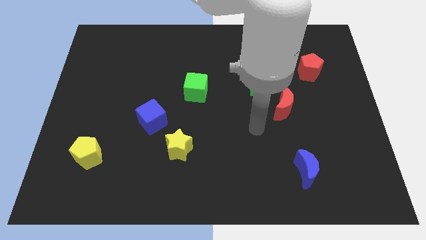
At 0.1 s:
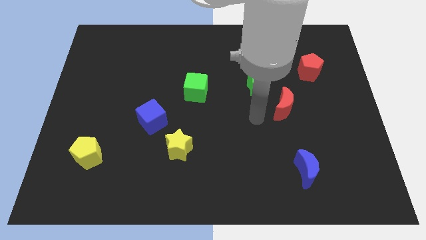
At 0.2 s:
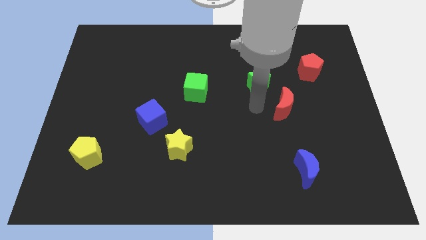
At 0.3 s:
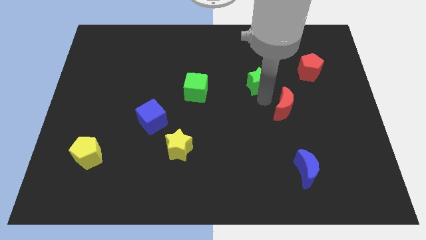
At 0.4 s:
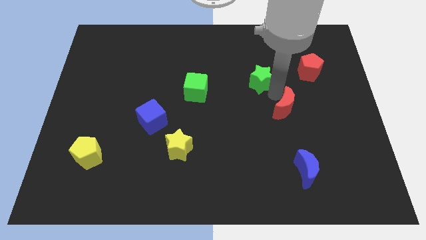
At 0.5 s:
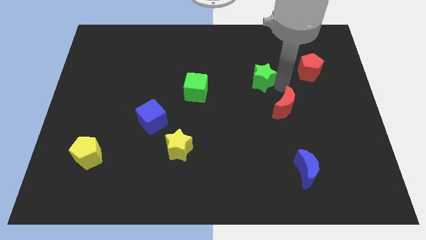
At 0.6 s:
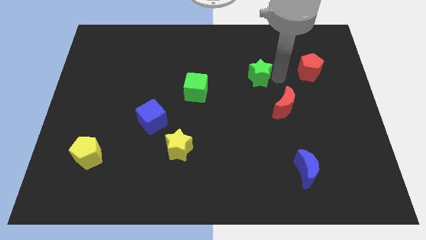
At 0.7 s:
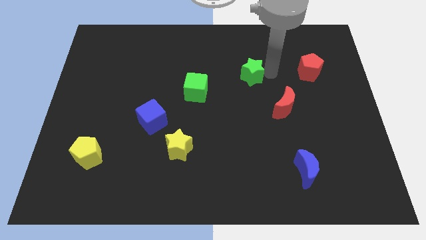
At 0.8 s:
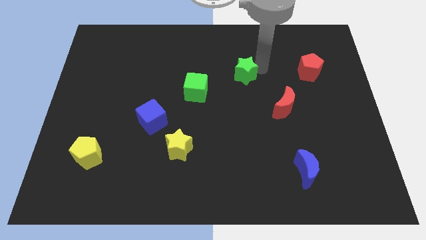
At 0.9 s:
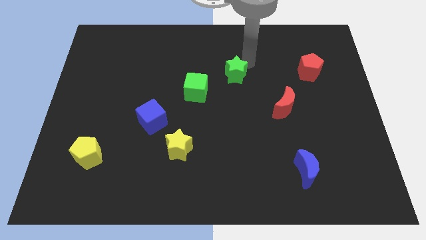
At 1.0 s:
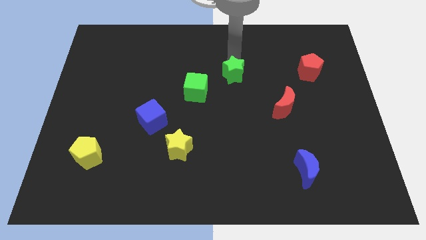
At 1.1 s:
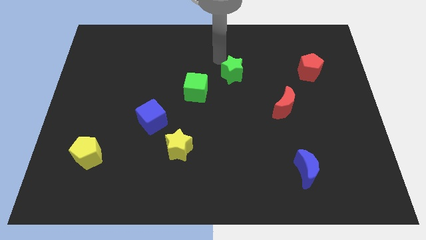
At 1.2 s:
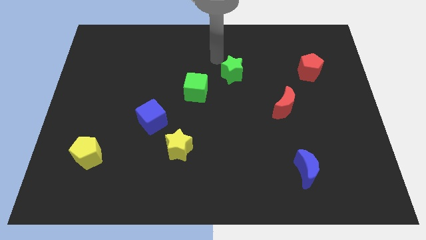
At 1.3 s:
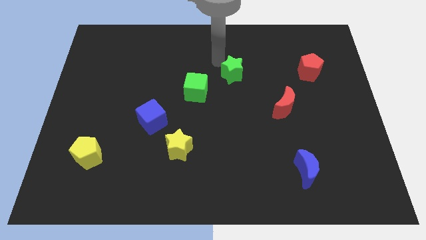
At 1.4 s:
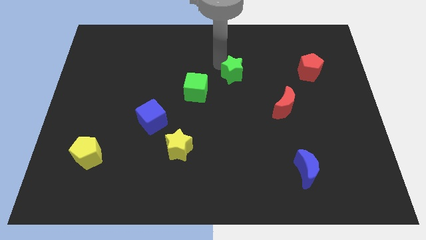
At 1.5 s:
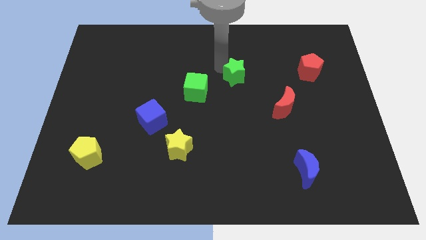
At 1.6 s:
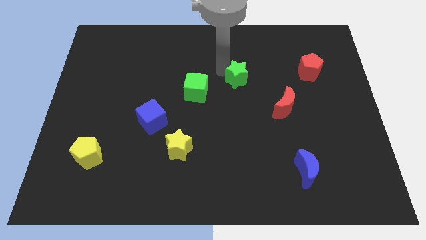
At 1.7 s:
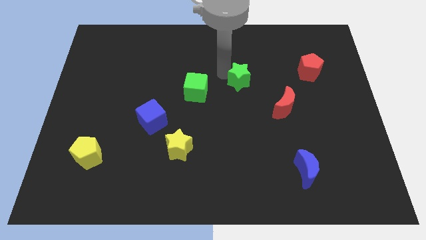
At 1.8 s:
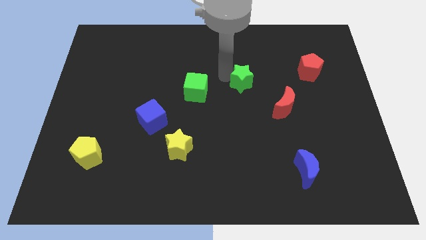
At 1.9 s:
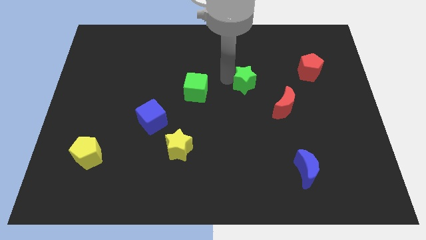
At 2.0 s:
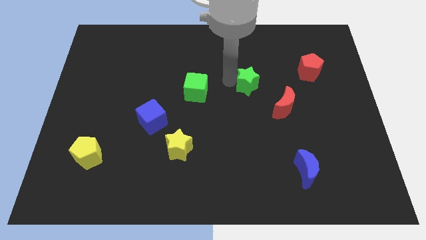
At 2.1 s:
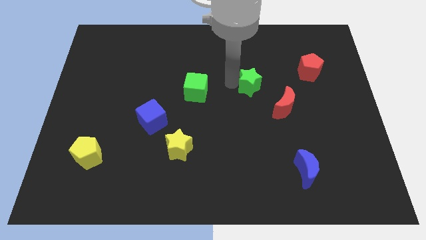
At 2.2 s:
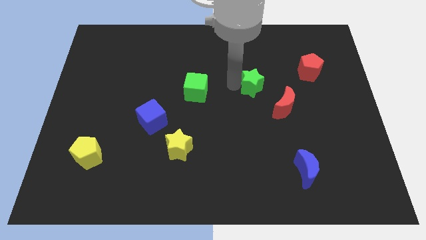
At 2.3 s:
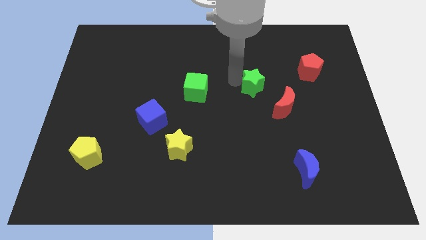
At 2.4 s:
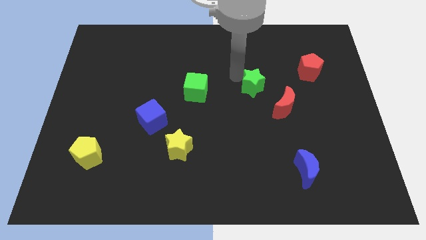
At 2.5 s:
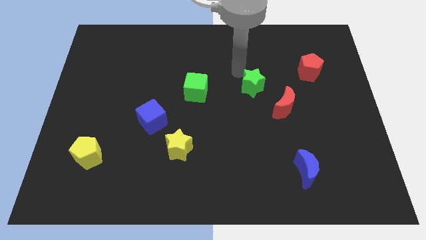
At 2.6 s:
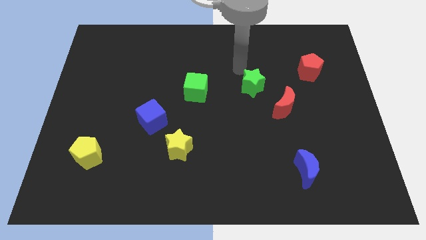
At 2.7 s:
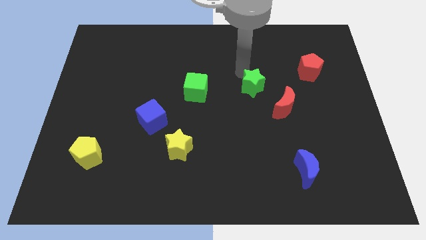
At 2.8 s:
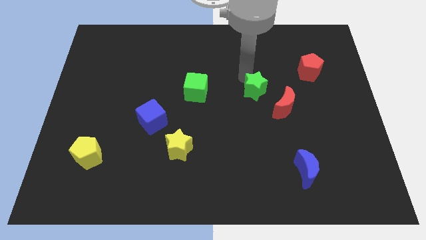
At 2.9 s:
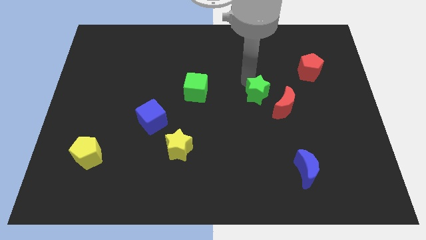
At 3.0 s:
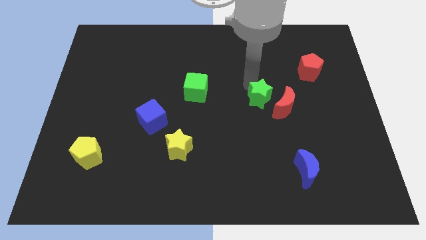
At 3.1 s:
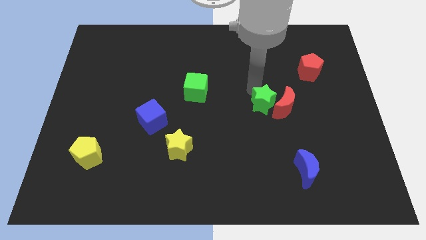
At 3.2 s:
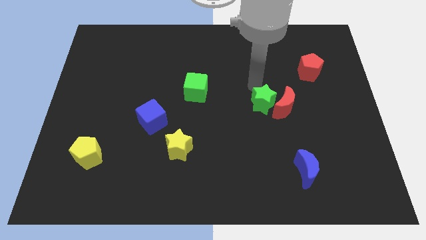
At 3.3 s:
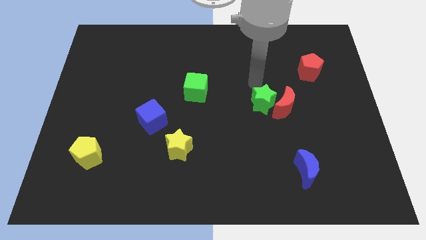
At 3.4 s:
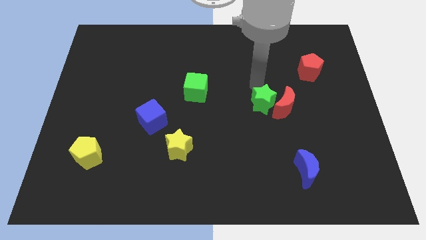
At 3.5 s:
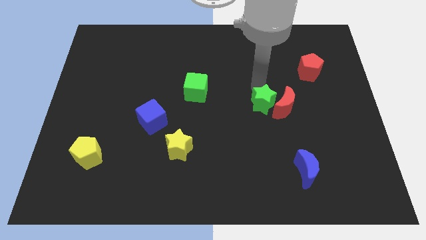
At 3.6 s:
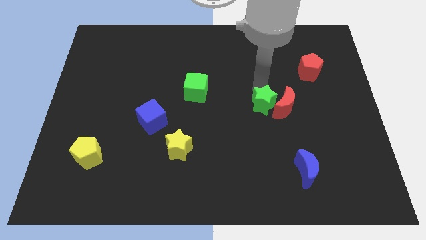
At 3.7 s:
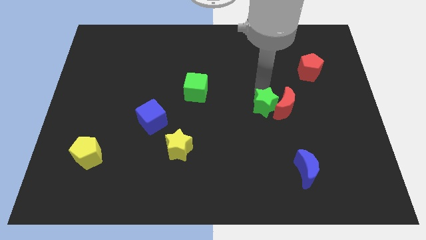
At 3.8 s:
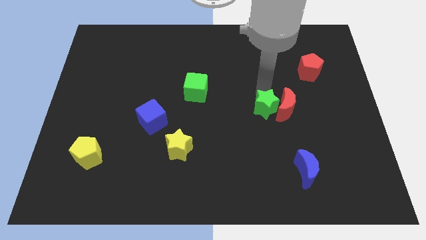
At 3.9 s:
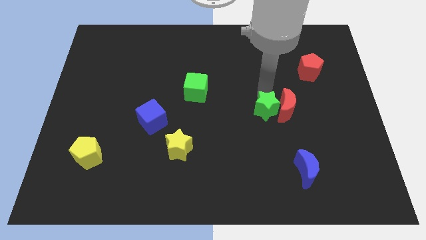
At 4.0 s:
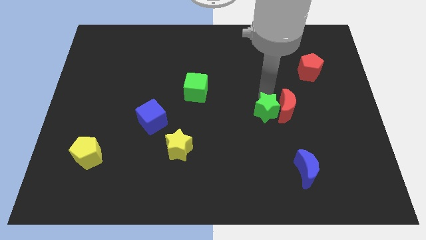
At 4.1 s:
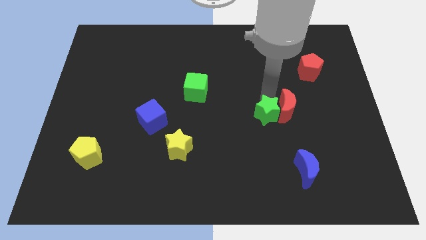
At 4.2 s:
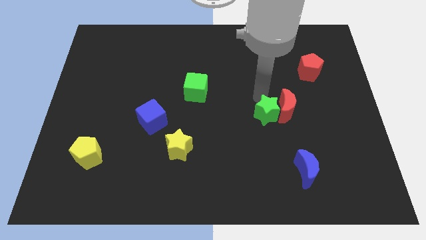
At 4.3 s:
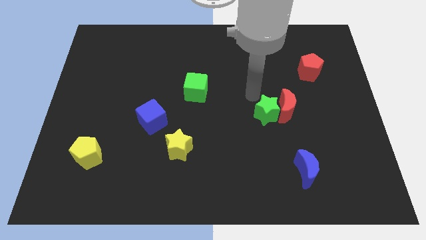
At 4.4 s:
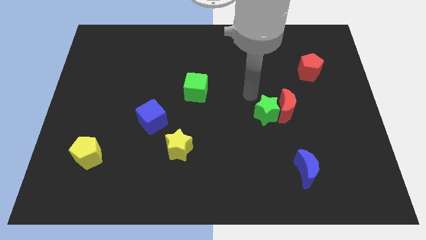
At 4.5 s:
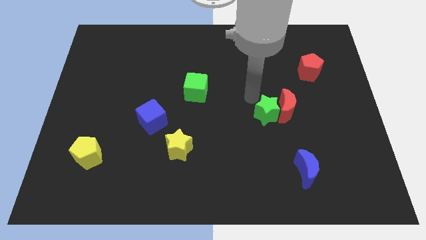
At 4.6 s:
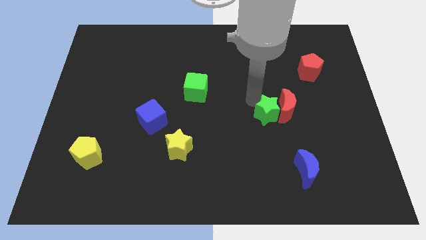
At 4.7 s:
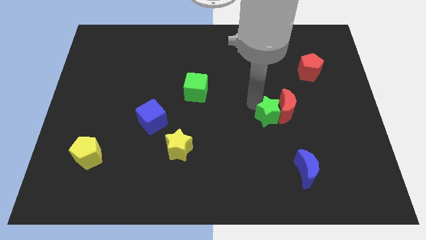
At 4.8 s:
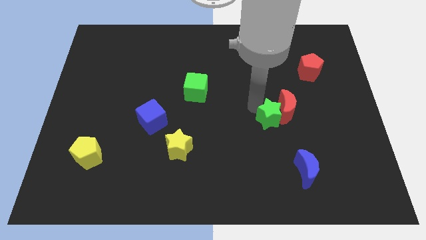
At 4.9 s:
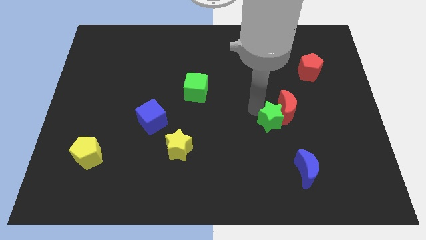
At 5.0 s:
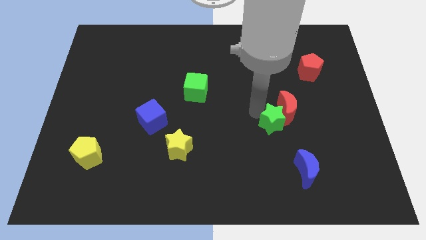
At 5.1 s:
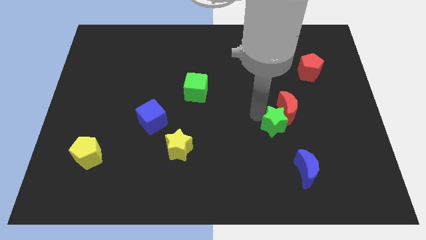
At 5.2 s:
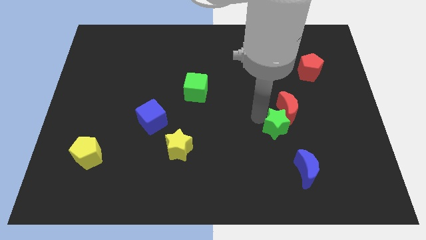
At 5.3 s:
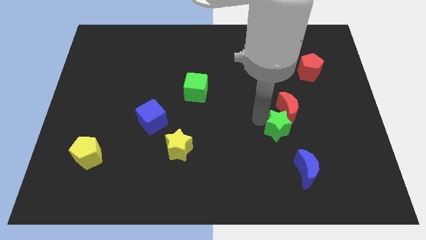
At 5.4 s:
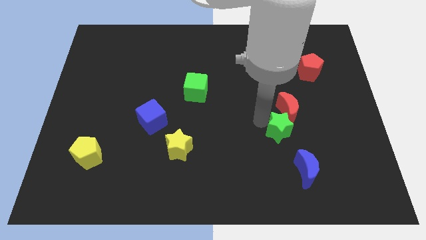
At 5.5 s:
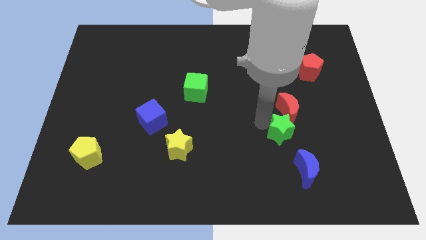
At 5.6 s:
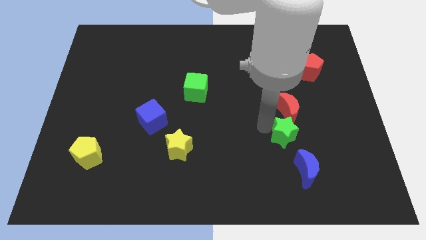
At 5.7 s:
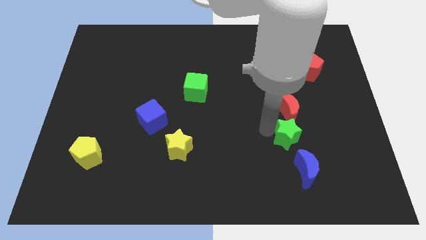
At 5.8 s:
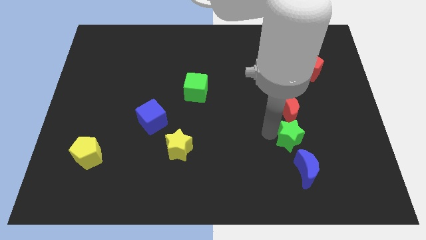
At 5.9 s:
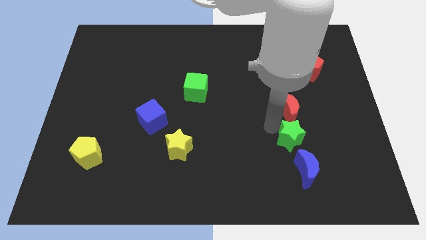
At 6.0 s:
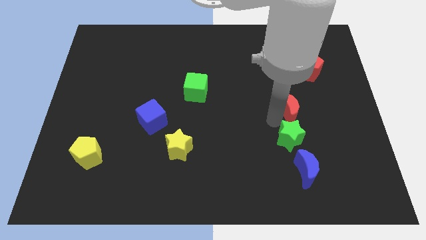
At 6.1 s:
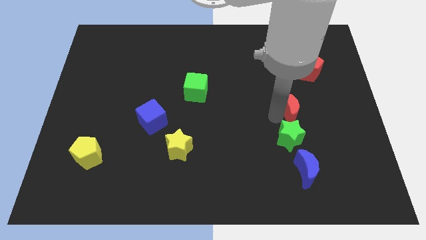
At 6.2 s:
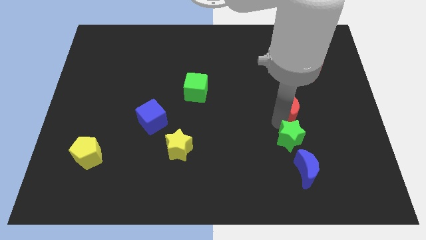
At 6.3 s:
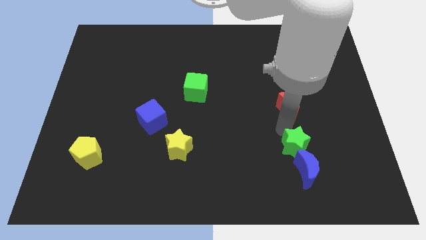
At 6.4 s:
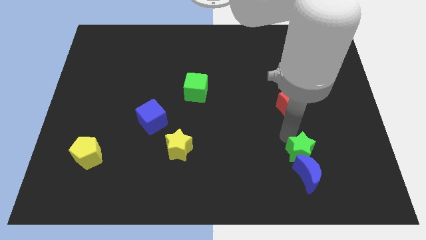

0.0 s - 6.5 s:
slide the green star close to the blue moon
